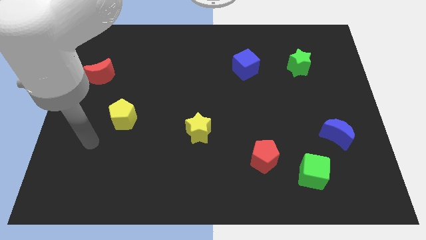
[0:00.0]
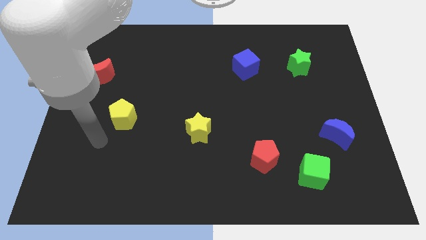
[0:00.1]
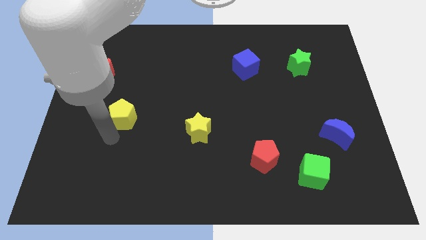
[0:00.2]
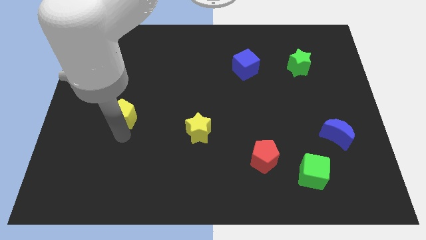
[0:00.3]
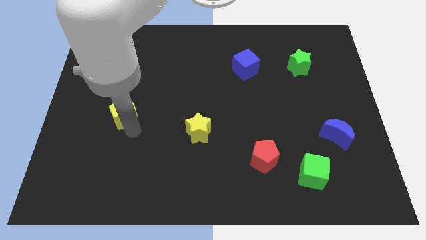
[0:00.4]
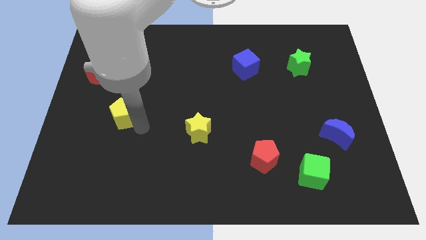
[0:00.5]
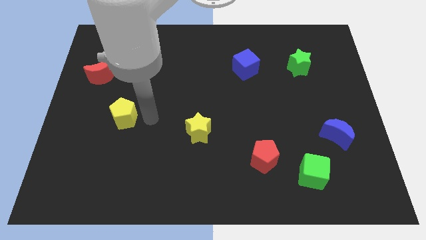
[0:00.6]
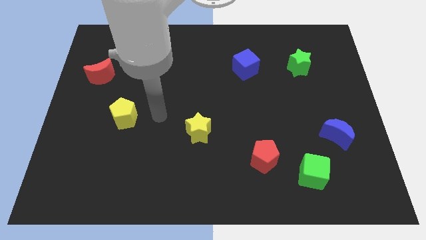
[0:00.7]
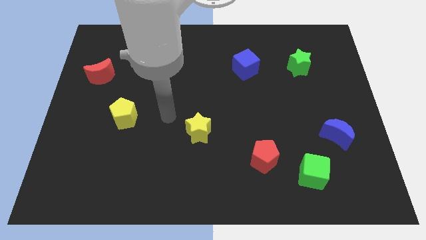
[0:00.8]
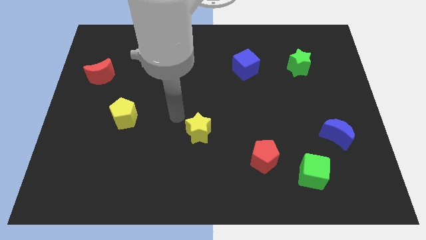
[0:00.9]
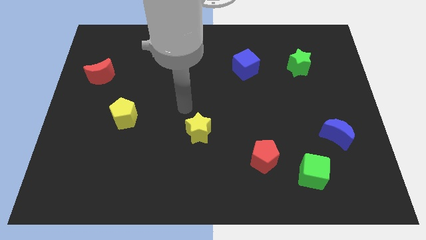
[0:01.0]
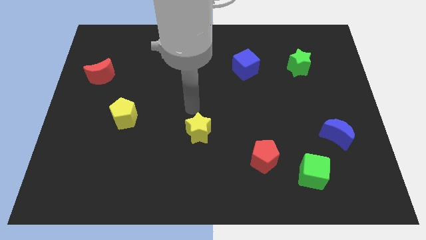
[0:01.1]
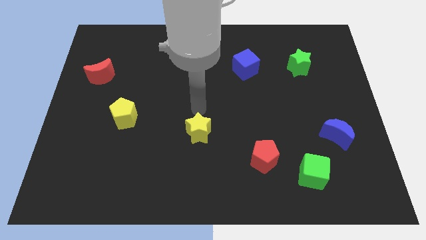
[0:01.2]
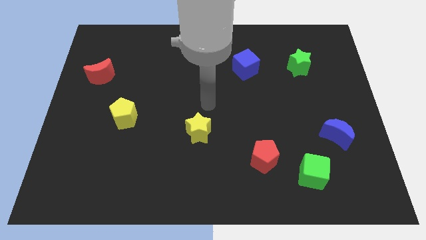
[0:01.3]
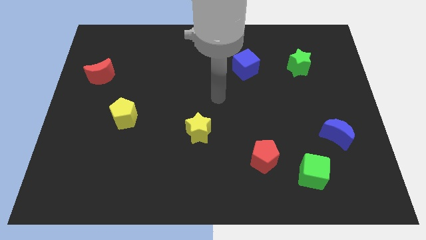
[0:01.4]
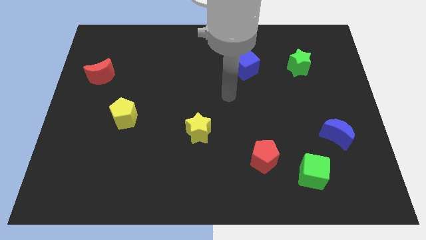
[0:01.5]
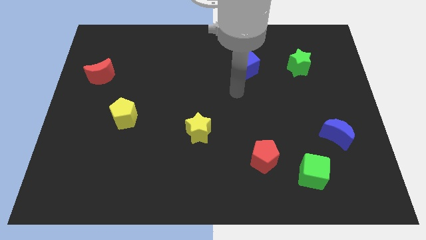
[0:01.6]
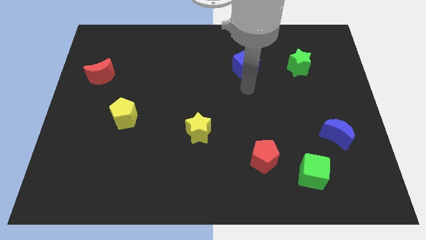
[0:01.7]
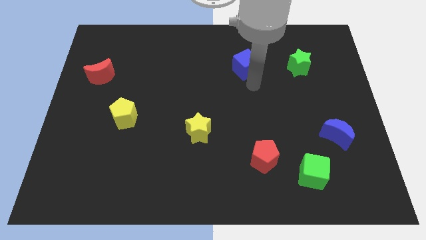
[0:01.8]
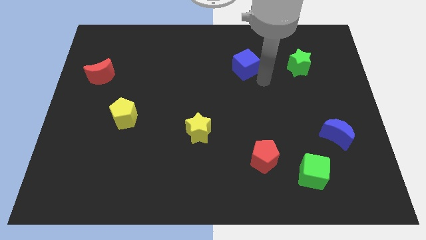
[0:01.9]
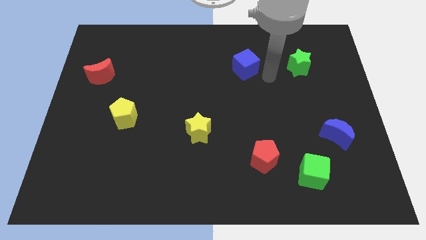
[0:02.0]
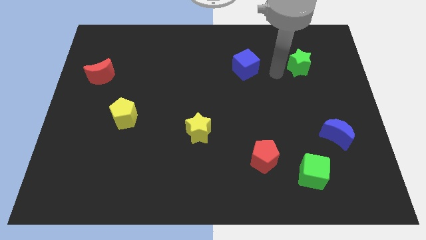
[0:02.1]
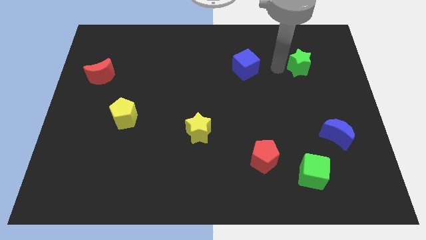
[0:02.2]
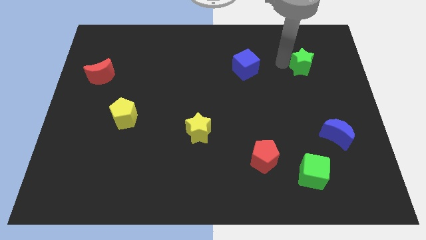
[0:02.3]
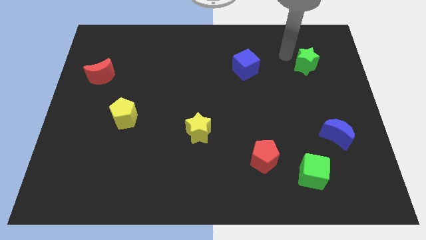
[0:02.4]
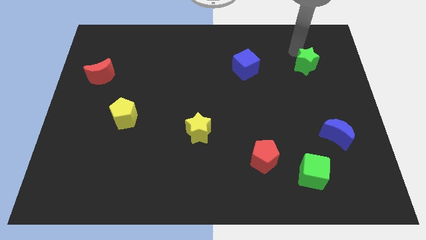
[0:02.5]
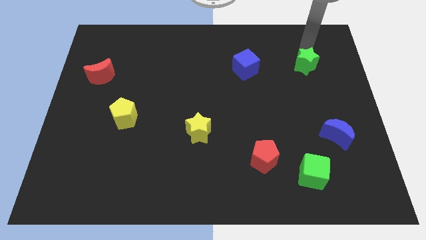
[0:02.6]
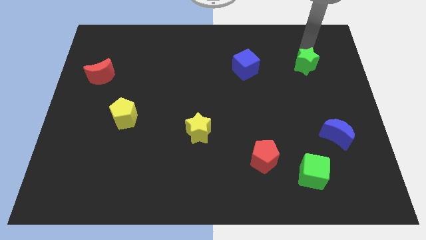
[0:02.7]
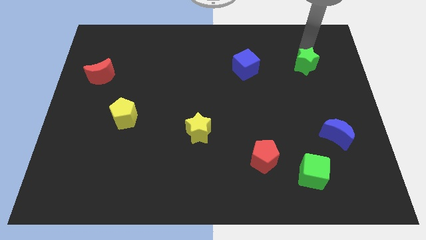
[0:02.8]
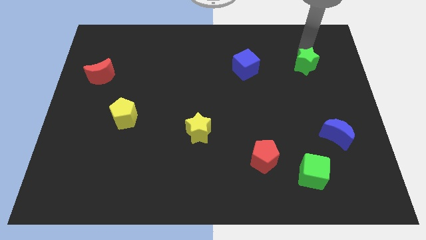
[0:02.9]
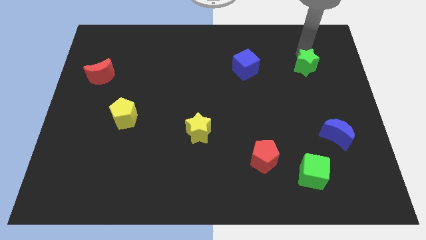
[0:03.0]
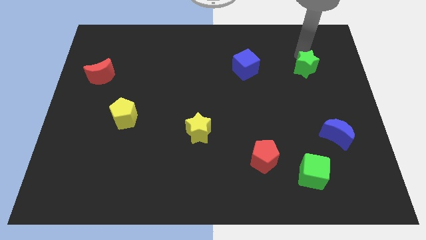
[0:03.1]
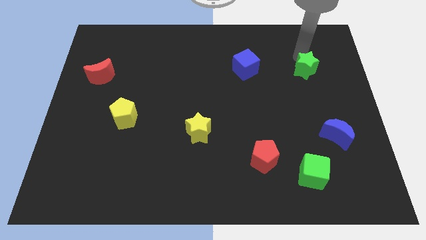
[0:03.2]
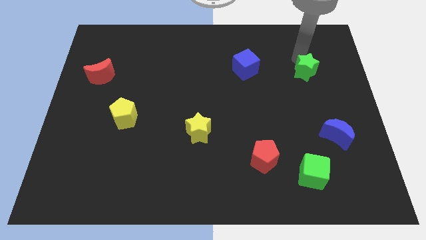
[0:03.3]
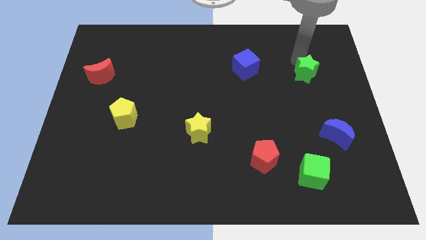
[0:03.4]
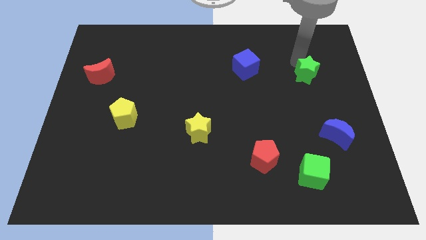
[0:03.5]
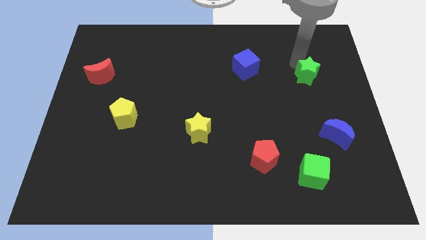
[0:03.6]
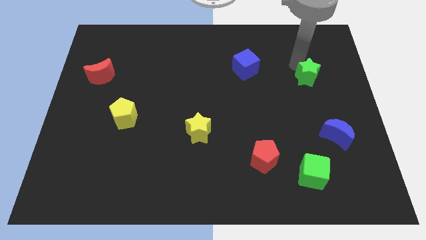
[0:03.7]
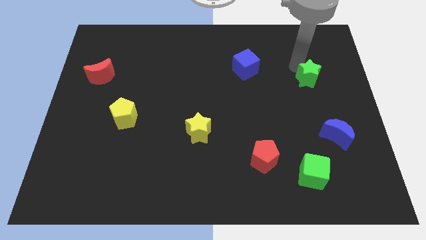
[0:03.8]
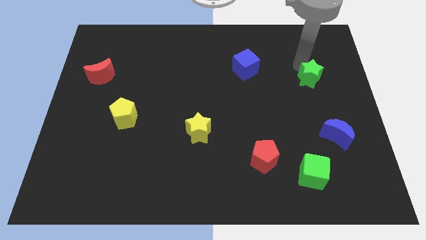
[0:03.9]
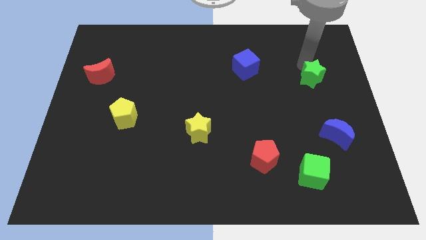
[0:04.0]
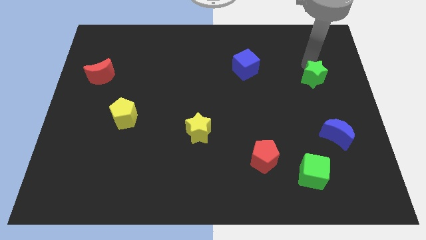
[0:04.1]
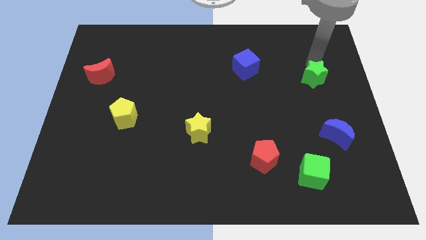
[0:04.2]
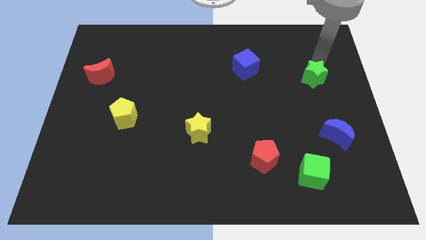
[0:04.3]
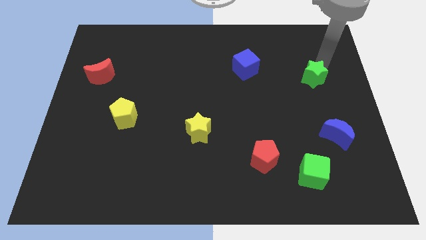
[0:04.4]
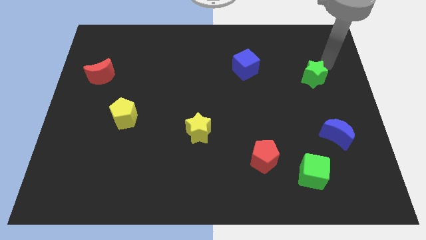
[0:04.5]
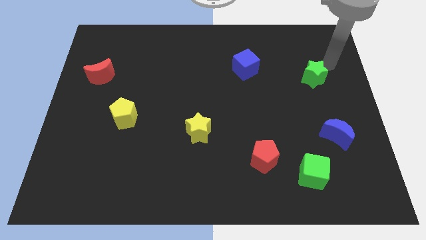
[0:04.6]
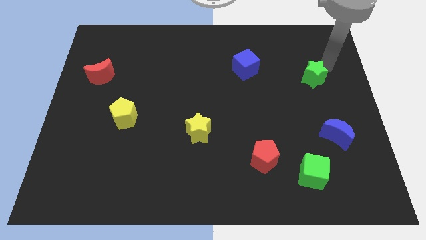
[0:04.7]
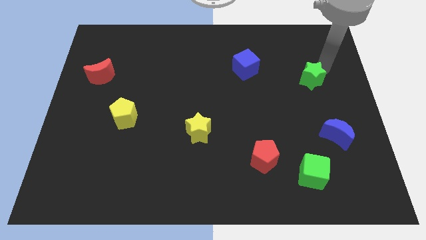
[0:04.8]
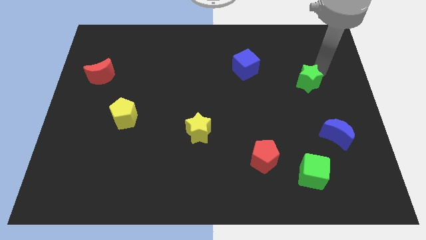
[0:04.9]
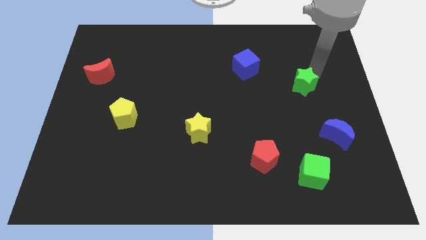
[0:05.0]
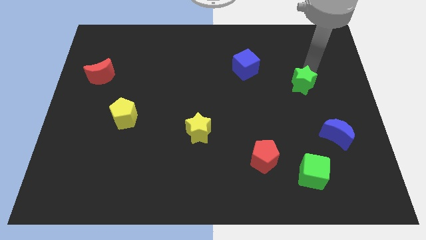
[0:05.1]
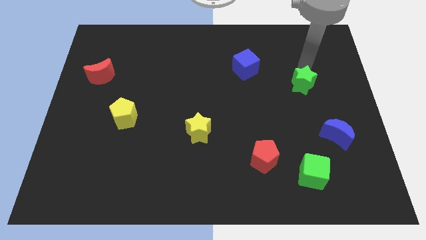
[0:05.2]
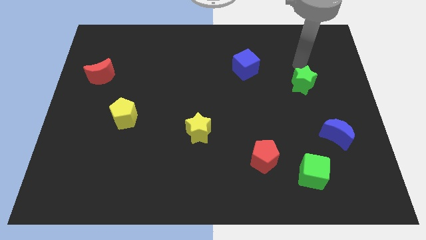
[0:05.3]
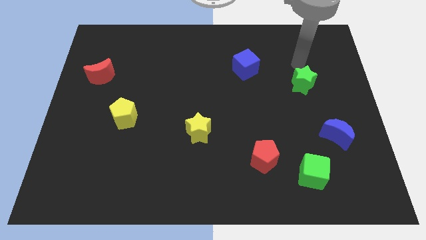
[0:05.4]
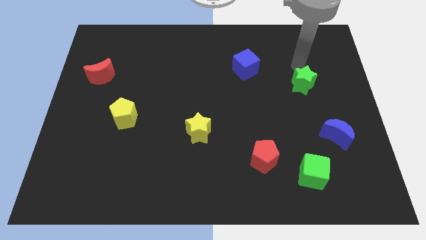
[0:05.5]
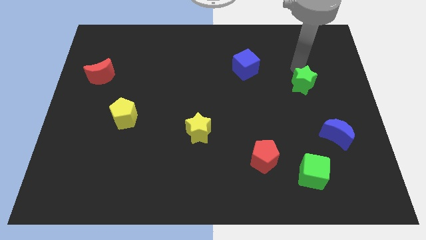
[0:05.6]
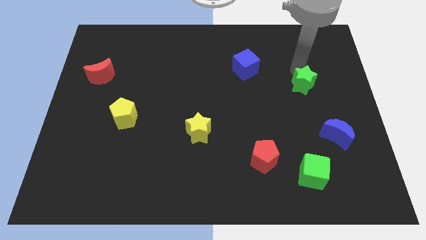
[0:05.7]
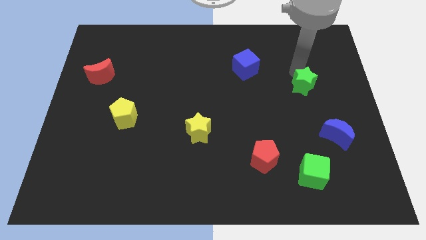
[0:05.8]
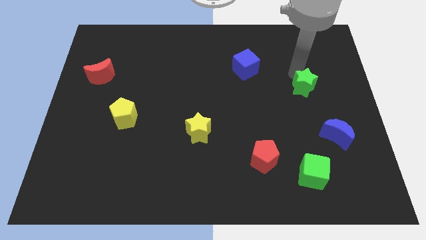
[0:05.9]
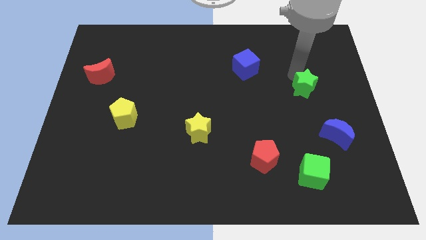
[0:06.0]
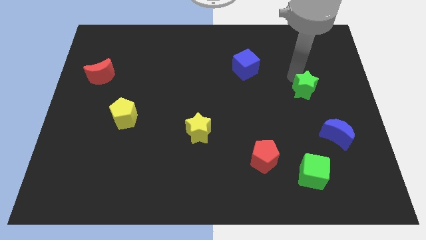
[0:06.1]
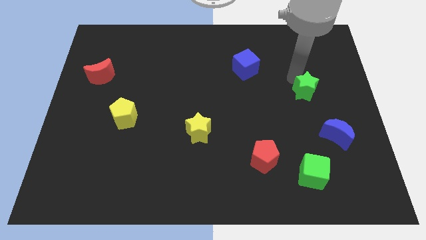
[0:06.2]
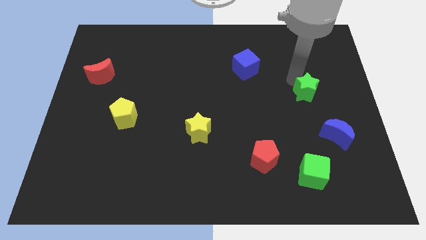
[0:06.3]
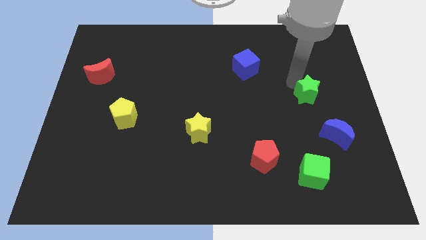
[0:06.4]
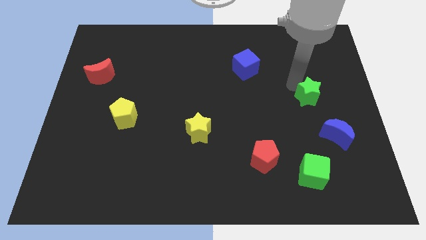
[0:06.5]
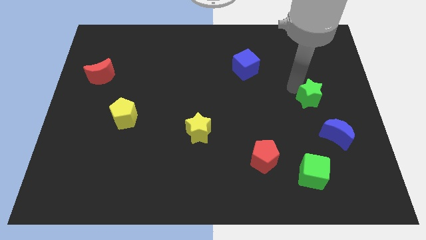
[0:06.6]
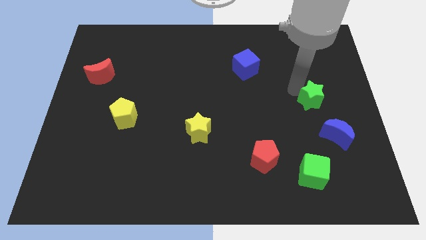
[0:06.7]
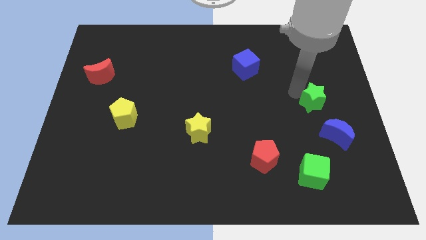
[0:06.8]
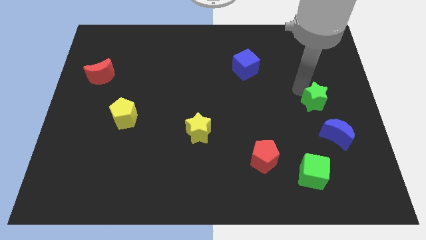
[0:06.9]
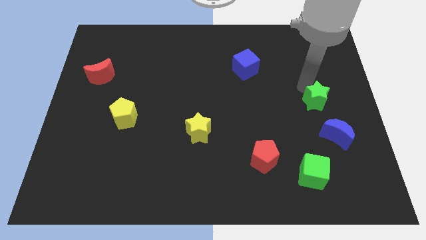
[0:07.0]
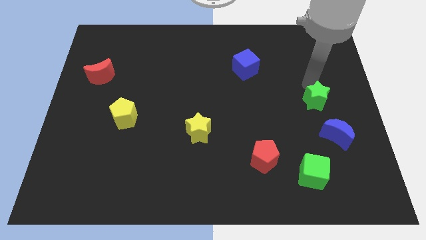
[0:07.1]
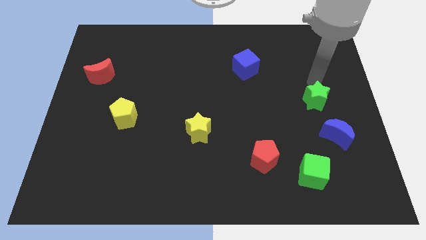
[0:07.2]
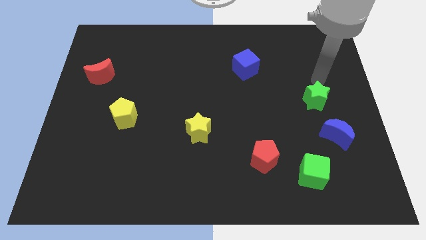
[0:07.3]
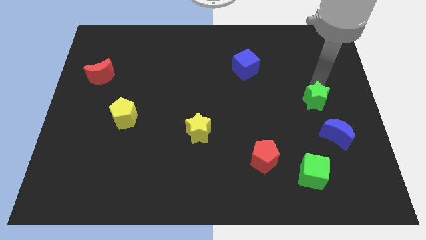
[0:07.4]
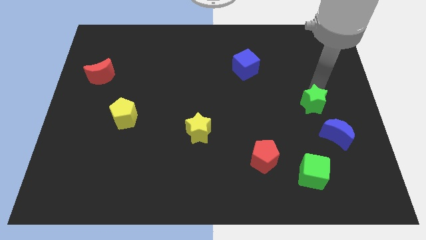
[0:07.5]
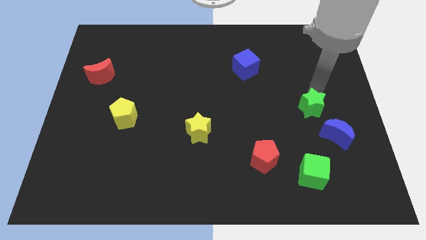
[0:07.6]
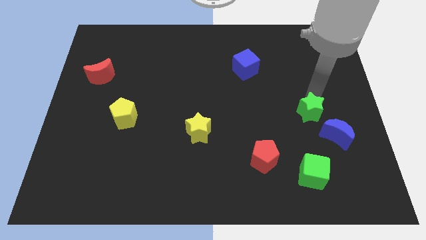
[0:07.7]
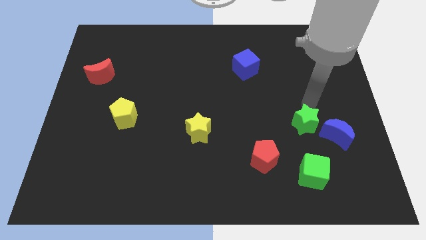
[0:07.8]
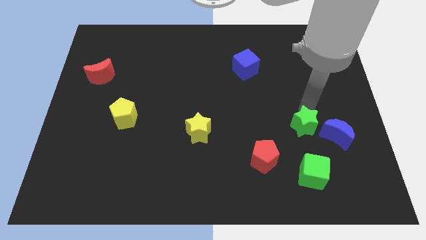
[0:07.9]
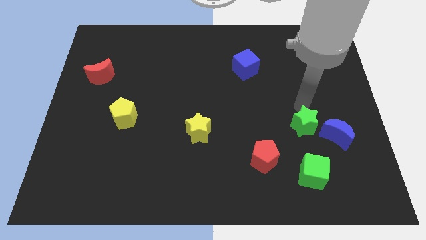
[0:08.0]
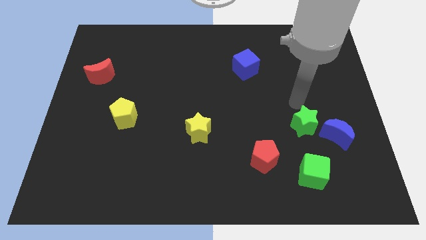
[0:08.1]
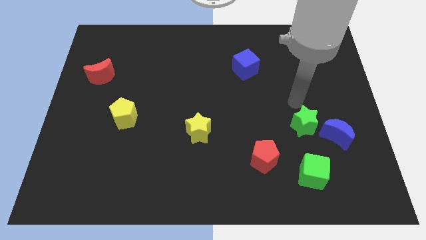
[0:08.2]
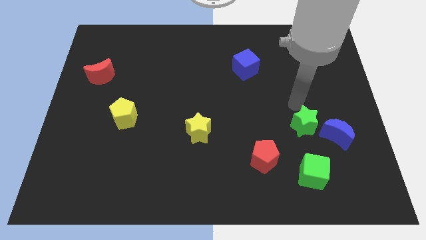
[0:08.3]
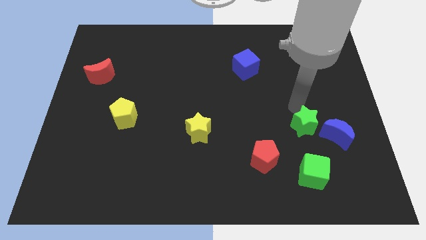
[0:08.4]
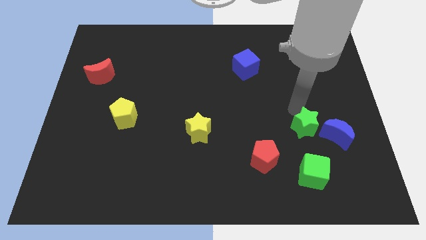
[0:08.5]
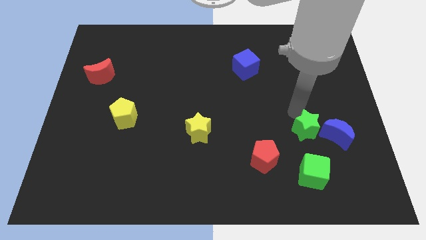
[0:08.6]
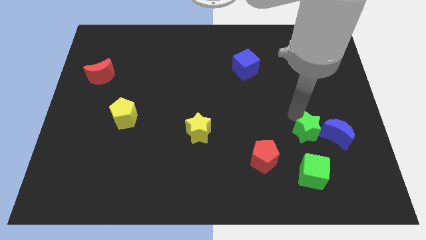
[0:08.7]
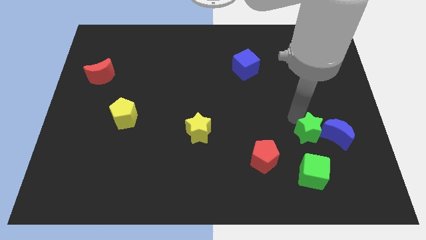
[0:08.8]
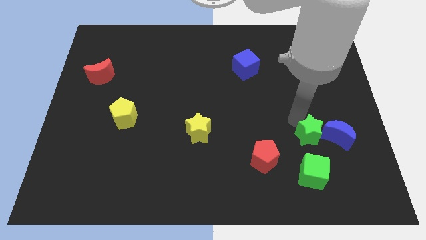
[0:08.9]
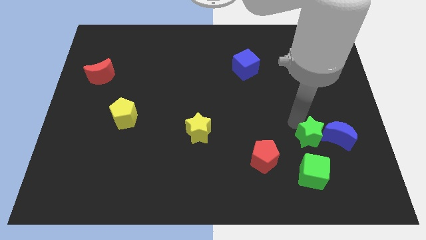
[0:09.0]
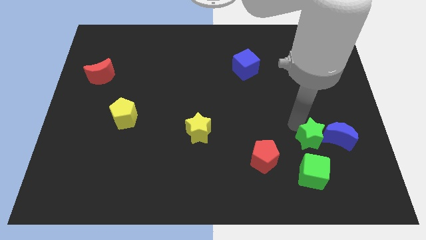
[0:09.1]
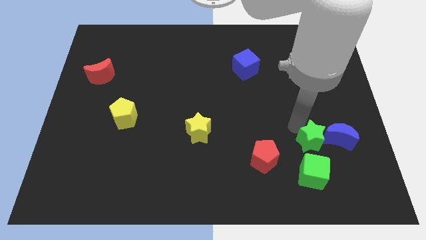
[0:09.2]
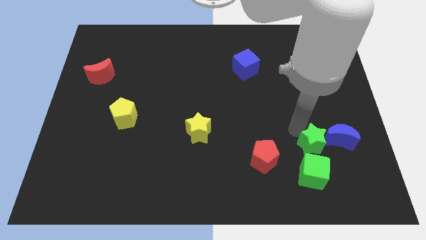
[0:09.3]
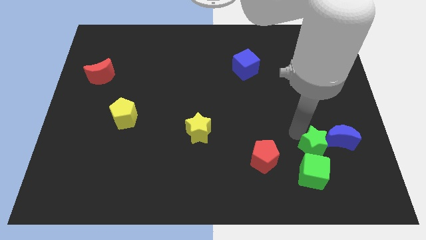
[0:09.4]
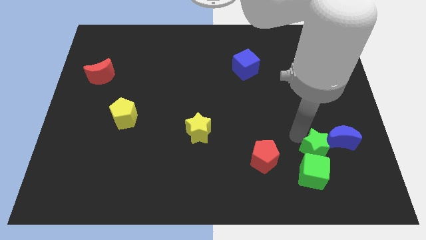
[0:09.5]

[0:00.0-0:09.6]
put the green star close to the green cube
